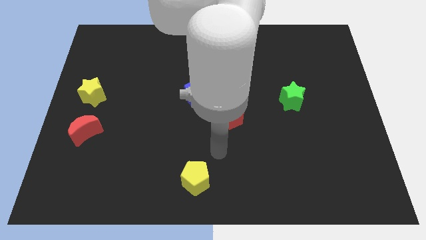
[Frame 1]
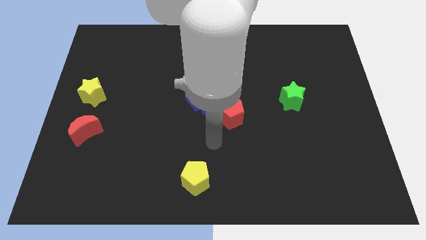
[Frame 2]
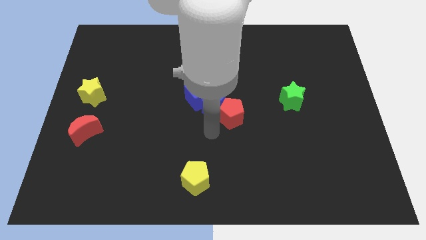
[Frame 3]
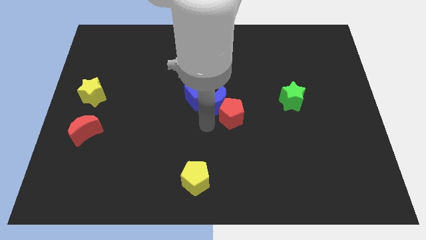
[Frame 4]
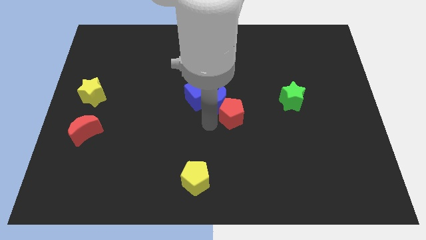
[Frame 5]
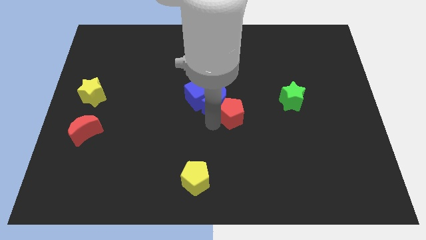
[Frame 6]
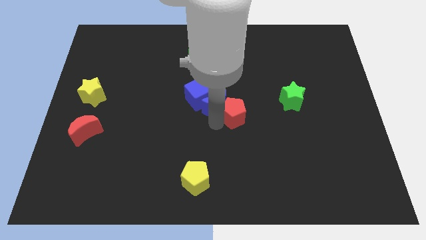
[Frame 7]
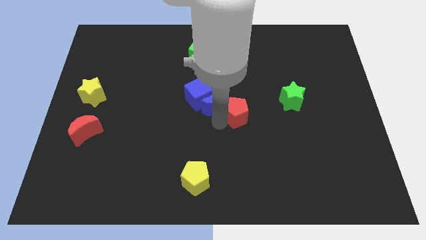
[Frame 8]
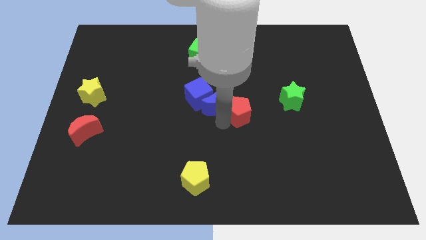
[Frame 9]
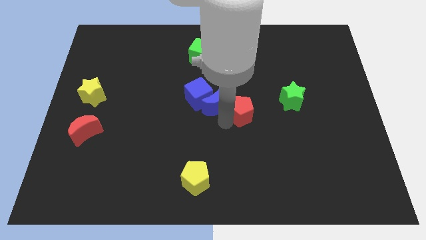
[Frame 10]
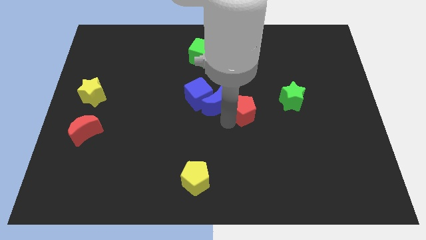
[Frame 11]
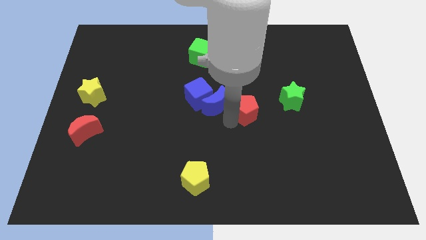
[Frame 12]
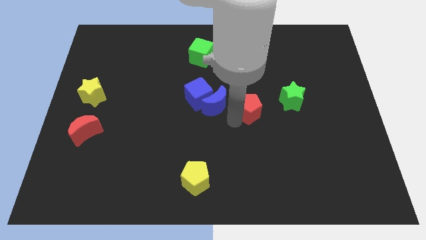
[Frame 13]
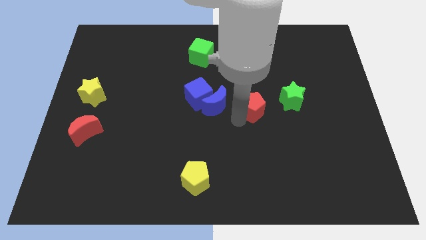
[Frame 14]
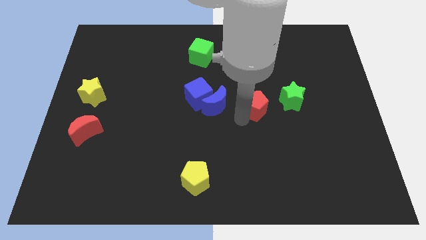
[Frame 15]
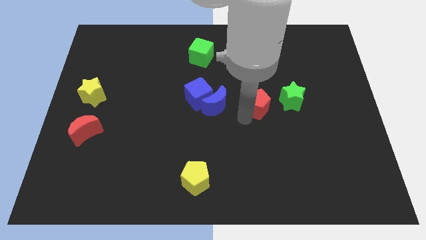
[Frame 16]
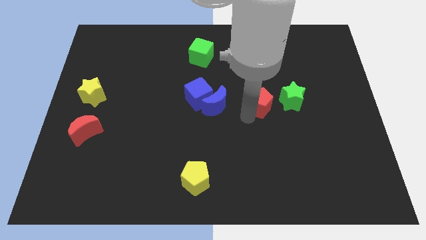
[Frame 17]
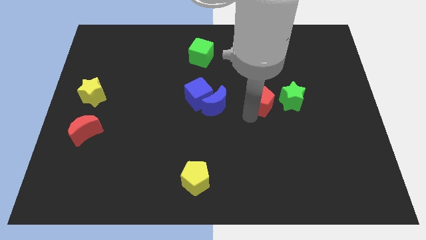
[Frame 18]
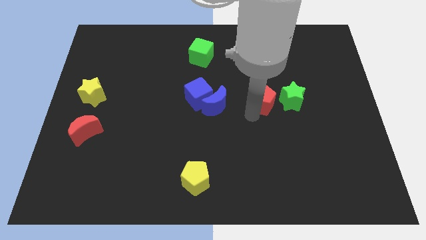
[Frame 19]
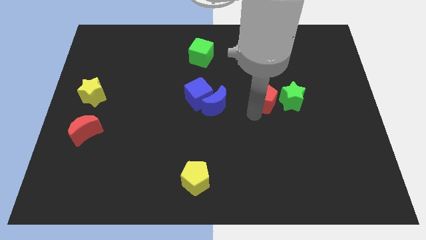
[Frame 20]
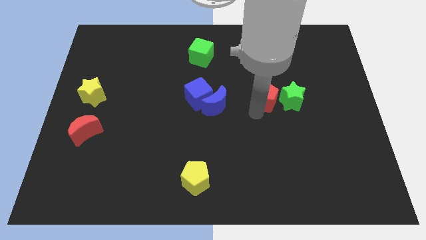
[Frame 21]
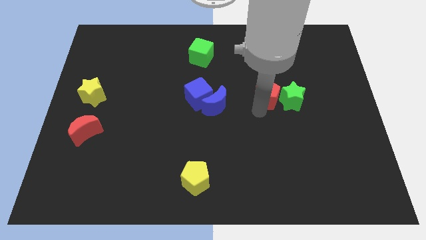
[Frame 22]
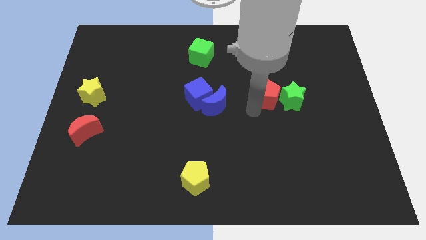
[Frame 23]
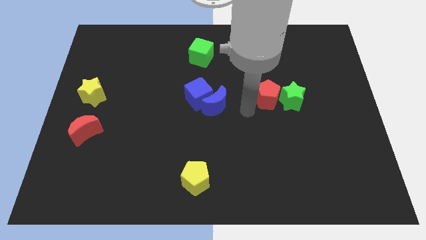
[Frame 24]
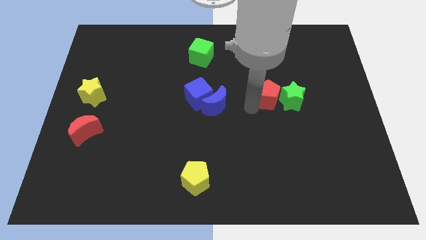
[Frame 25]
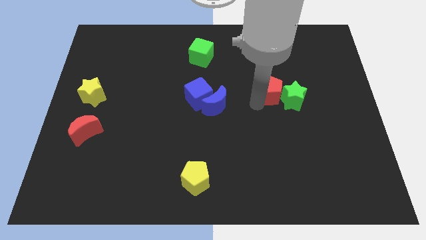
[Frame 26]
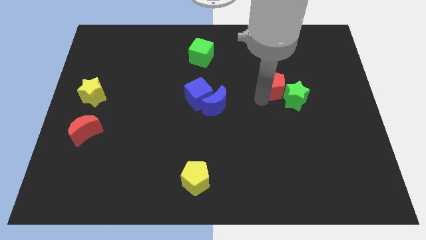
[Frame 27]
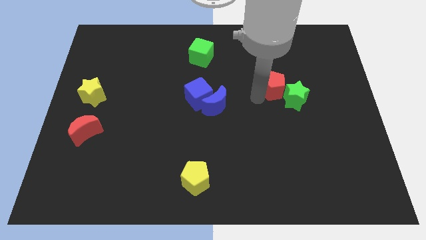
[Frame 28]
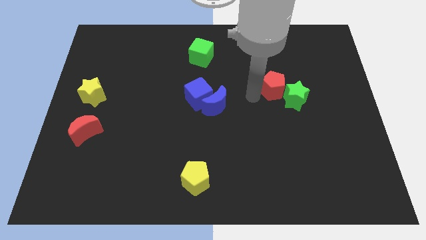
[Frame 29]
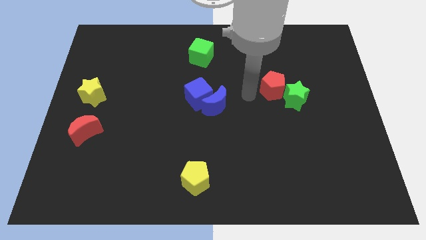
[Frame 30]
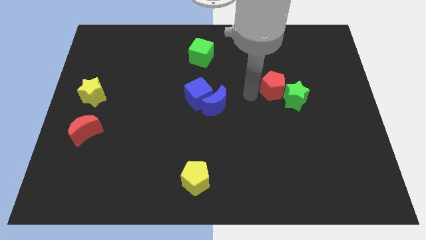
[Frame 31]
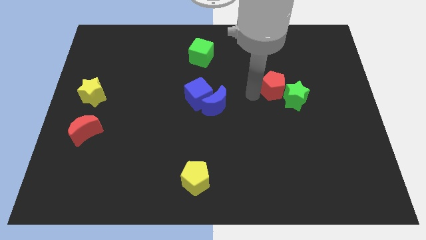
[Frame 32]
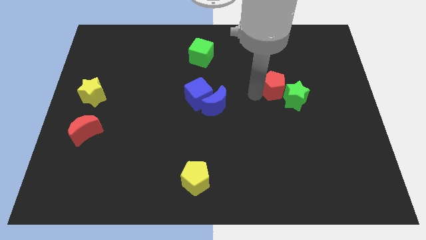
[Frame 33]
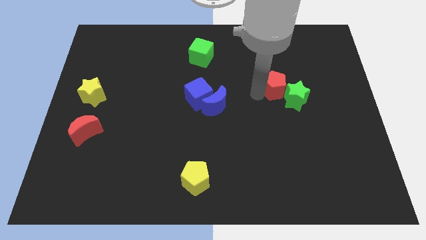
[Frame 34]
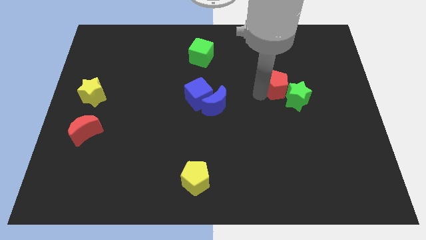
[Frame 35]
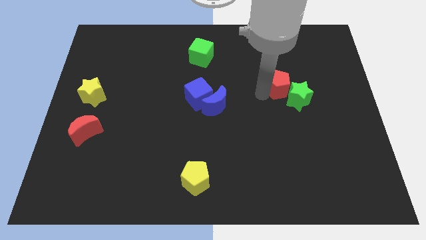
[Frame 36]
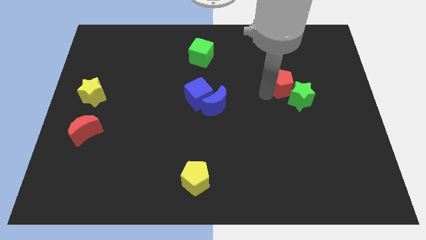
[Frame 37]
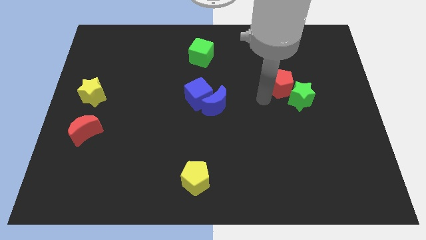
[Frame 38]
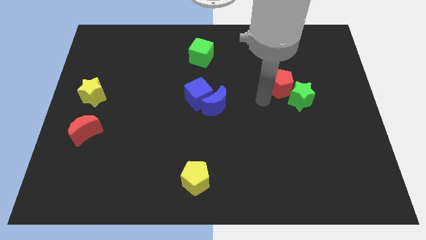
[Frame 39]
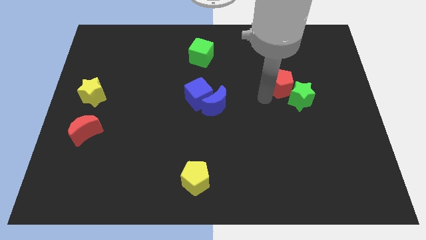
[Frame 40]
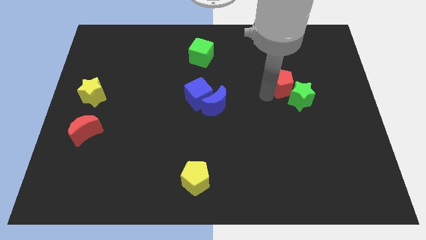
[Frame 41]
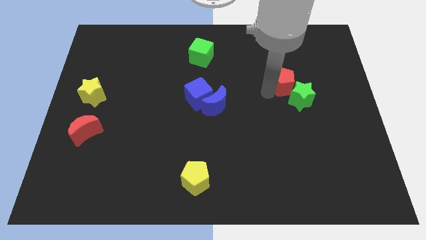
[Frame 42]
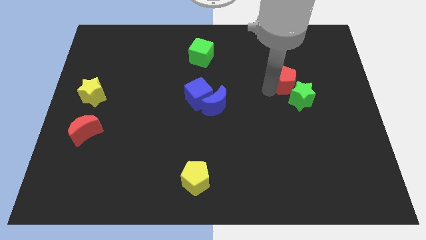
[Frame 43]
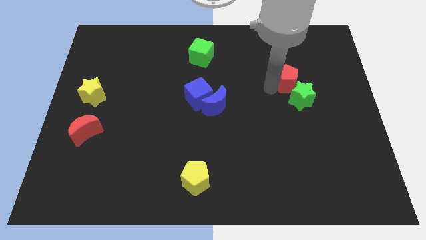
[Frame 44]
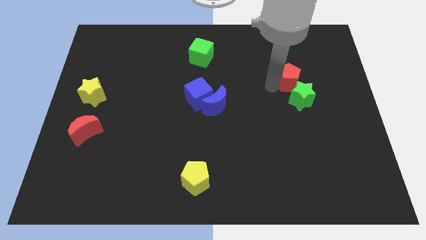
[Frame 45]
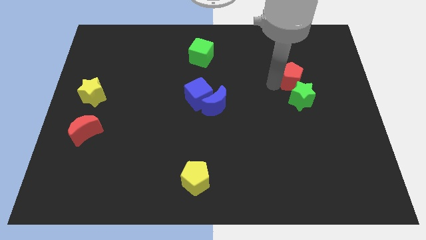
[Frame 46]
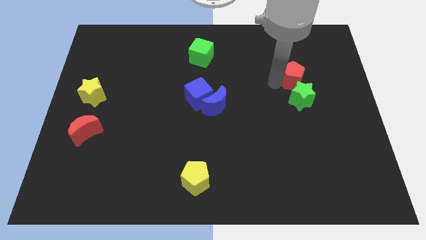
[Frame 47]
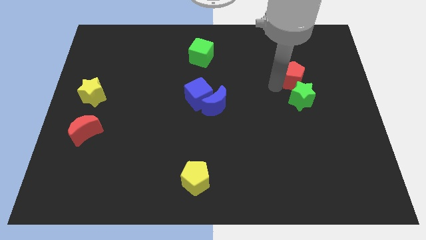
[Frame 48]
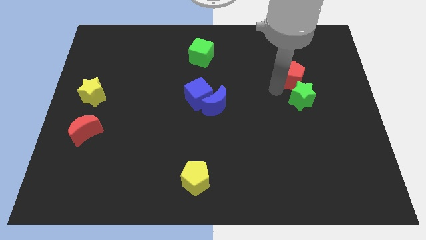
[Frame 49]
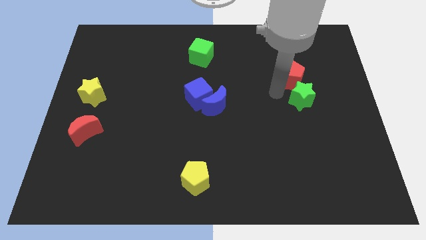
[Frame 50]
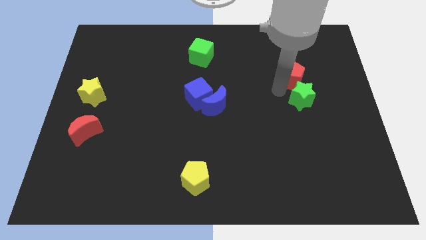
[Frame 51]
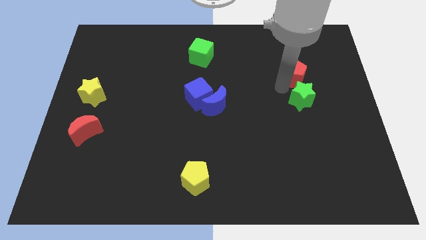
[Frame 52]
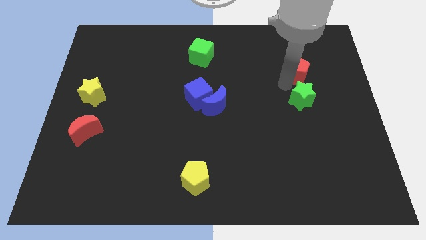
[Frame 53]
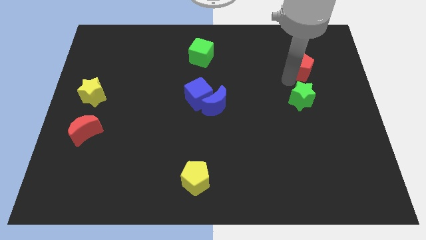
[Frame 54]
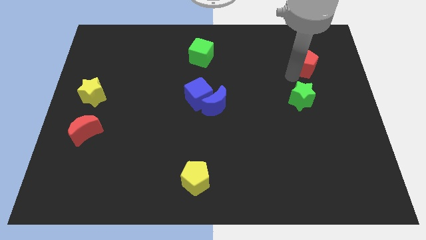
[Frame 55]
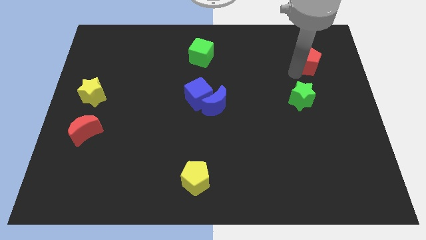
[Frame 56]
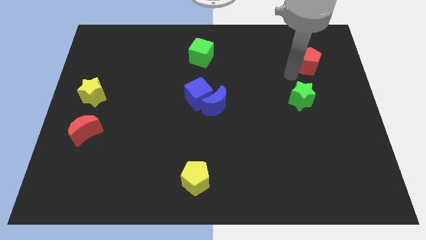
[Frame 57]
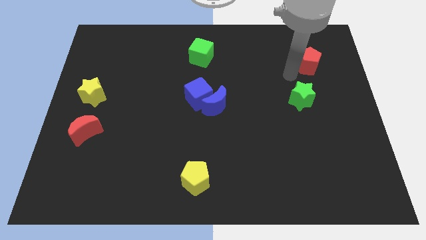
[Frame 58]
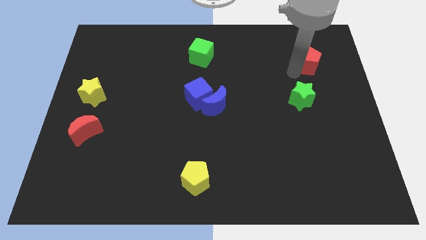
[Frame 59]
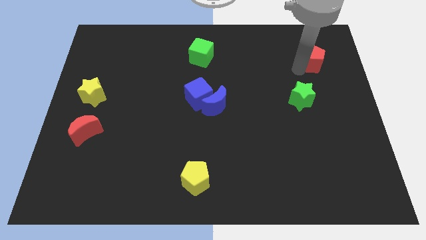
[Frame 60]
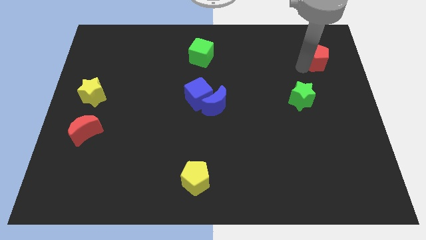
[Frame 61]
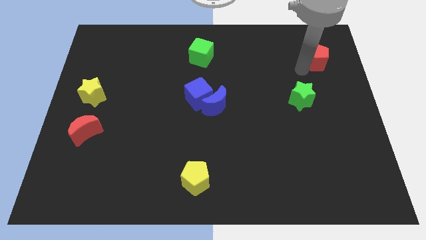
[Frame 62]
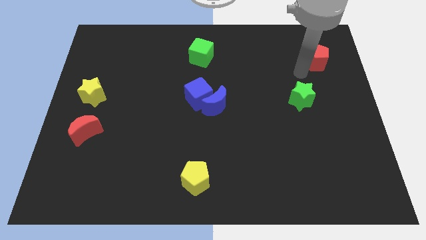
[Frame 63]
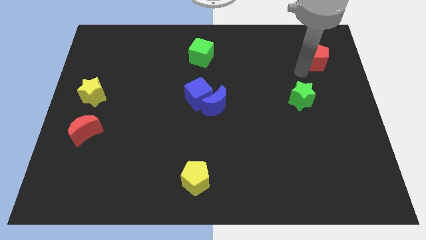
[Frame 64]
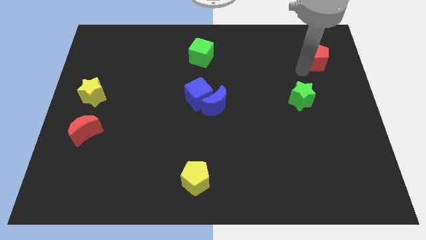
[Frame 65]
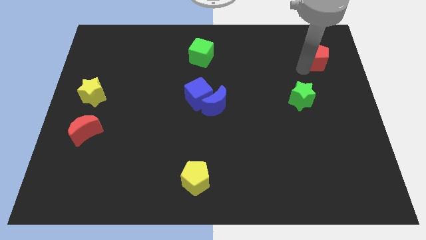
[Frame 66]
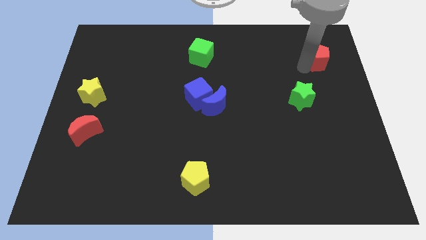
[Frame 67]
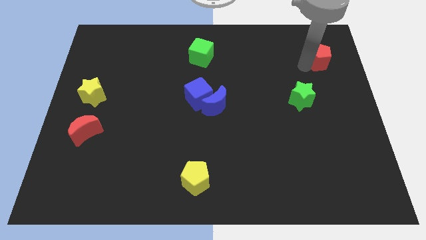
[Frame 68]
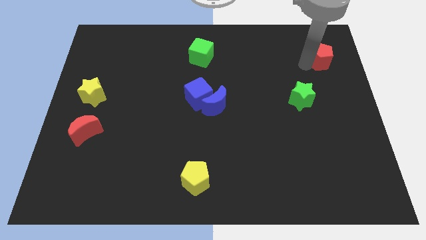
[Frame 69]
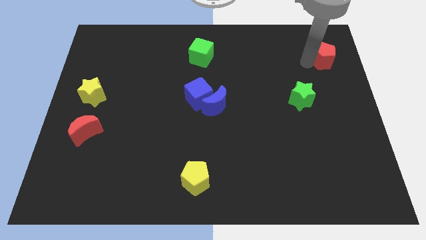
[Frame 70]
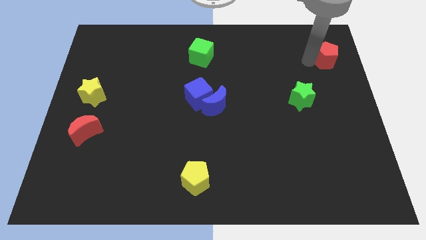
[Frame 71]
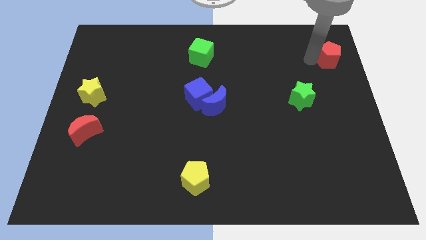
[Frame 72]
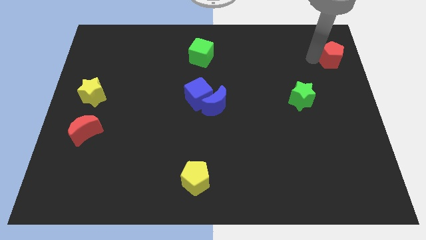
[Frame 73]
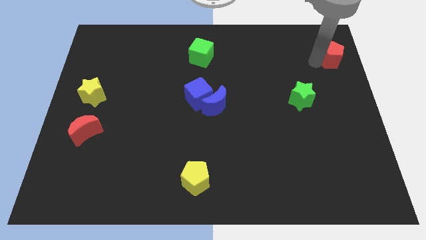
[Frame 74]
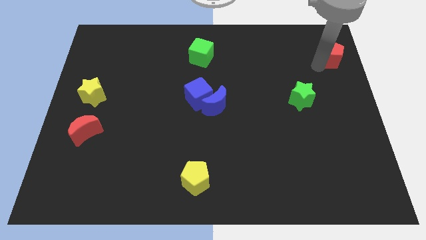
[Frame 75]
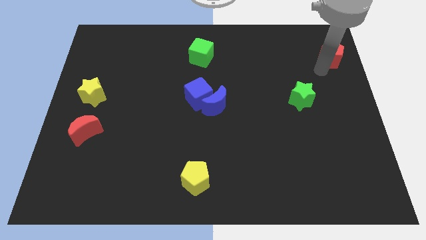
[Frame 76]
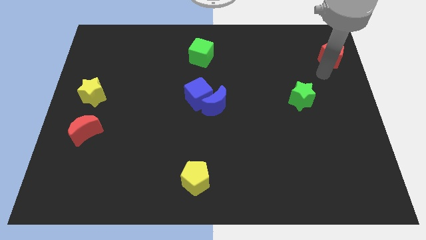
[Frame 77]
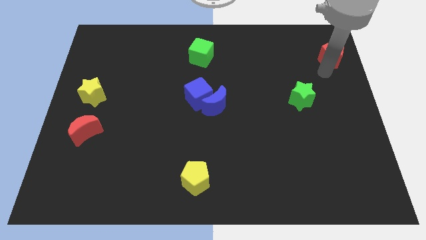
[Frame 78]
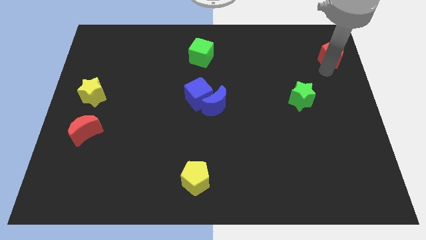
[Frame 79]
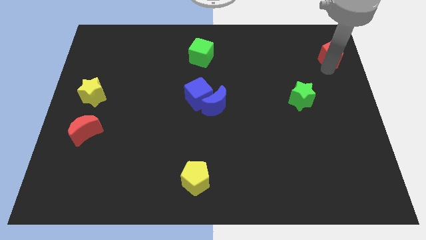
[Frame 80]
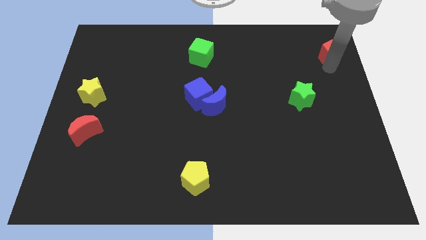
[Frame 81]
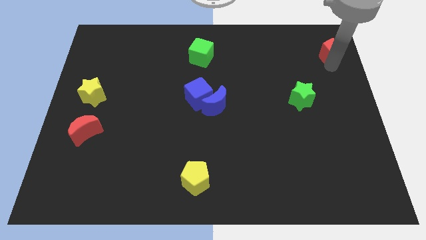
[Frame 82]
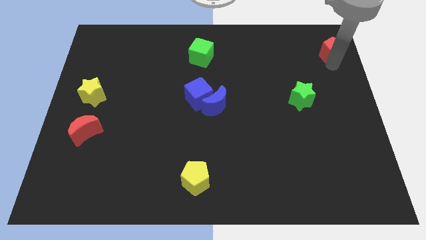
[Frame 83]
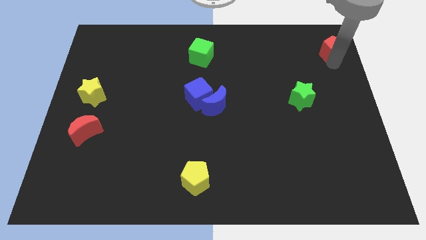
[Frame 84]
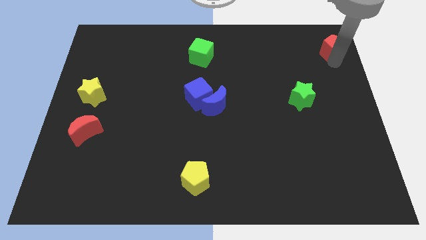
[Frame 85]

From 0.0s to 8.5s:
slide the red pentagon to the top right of the board
